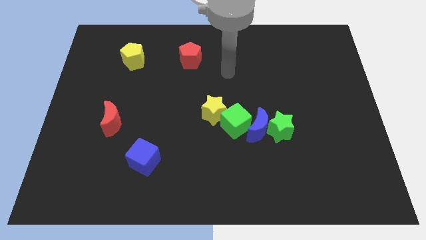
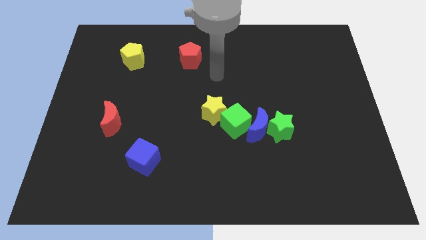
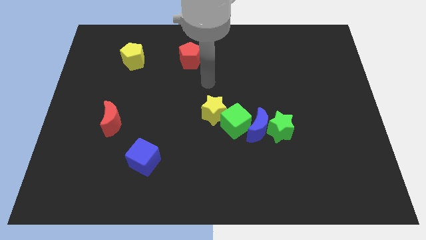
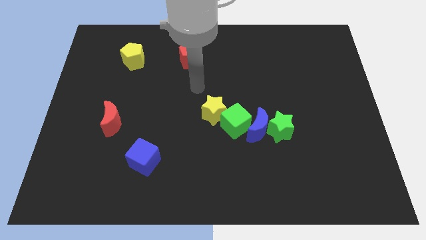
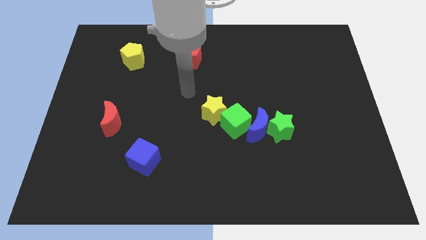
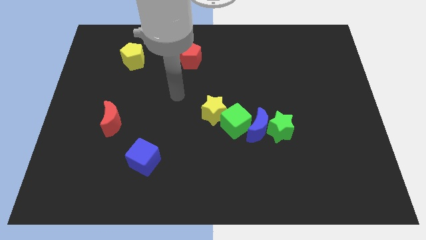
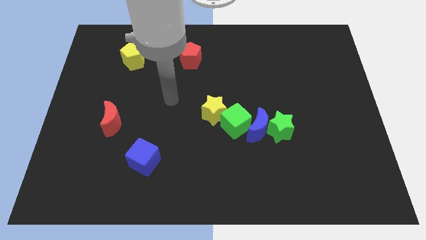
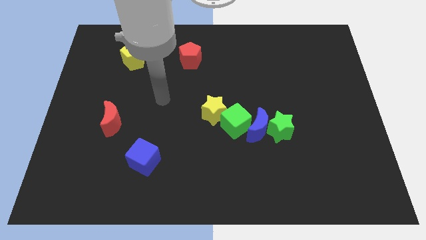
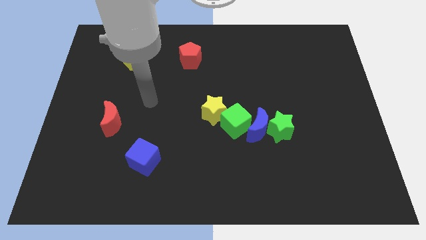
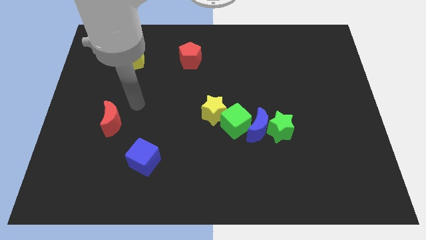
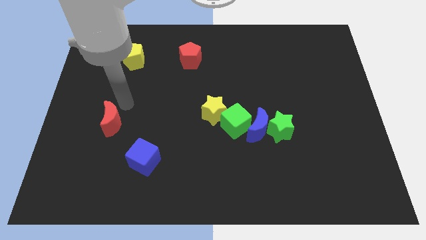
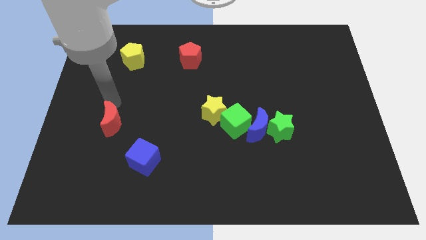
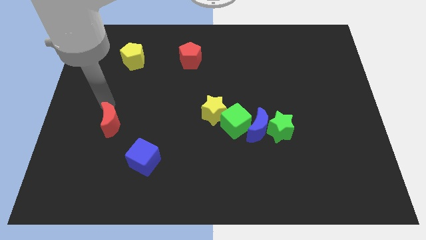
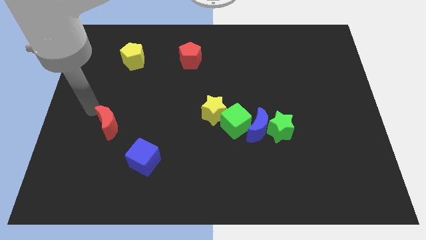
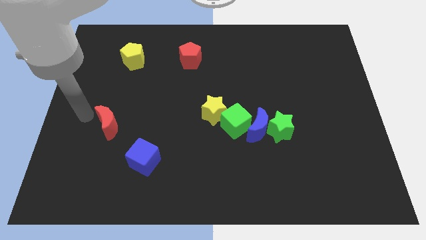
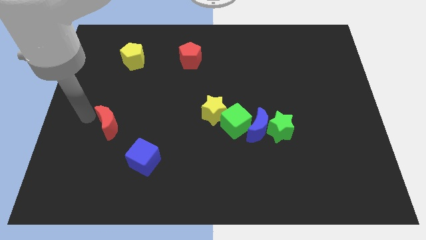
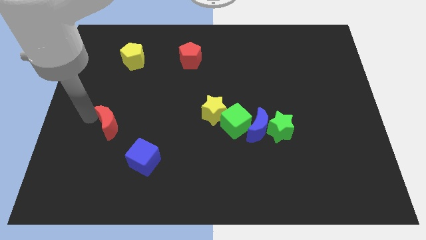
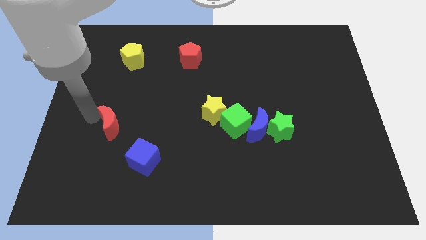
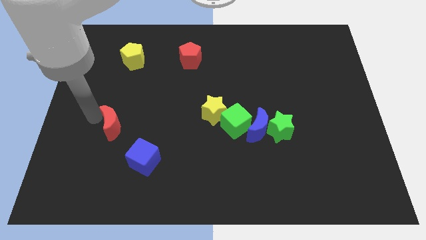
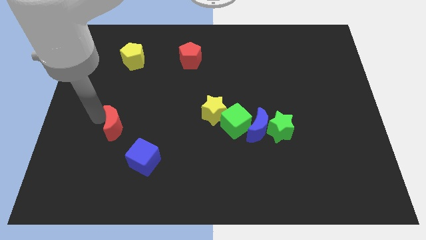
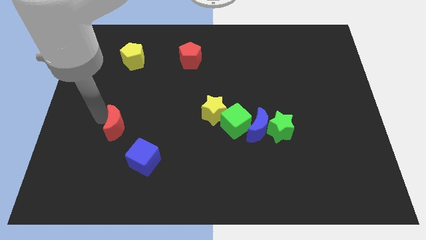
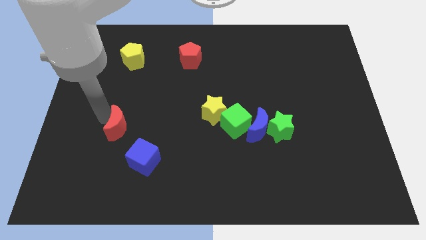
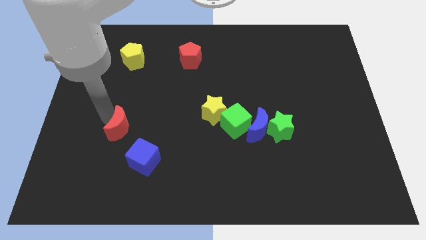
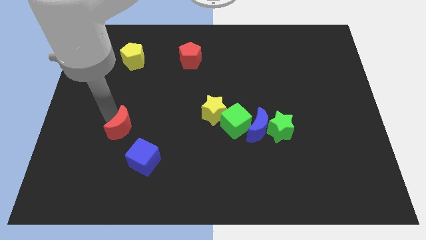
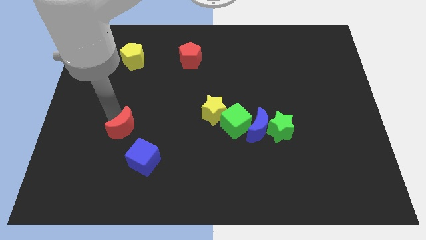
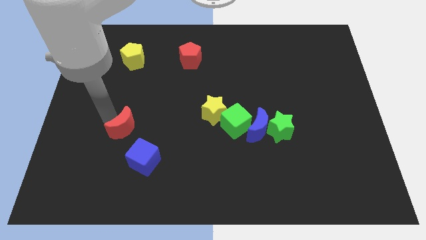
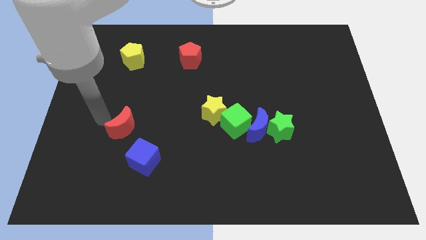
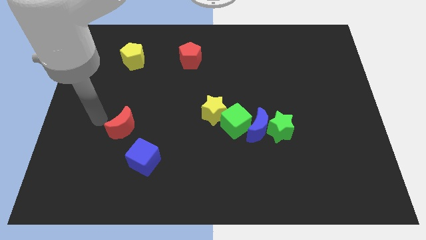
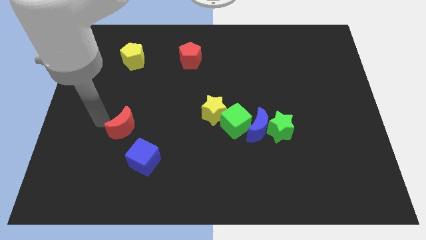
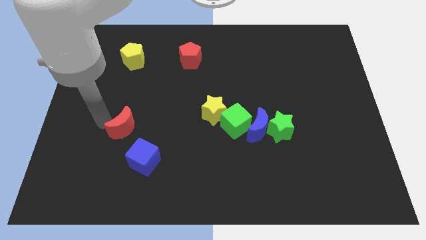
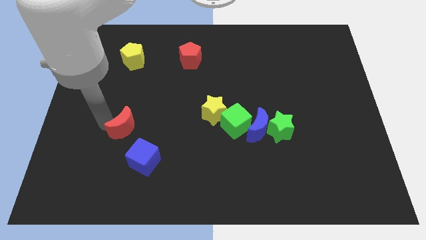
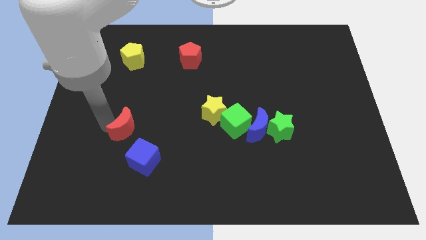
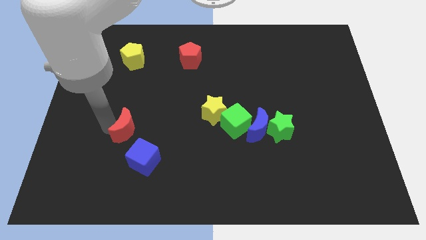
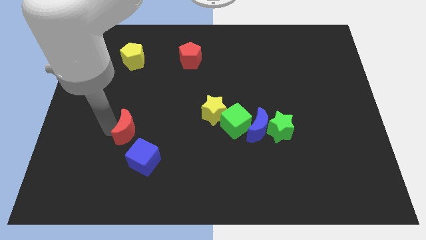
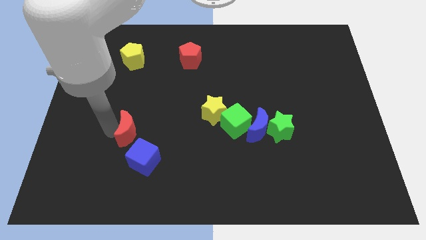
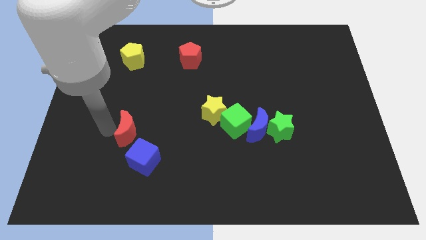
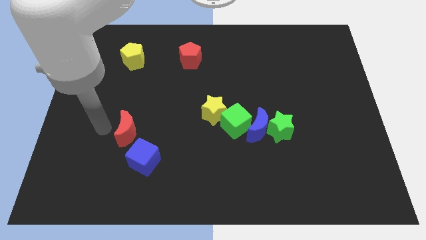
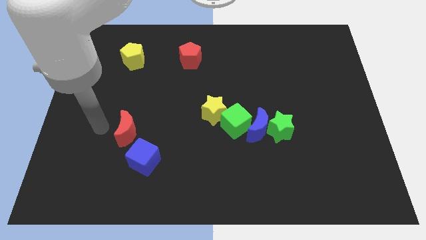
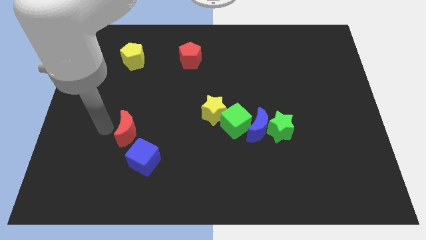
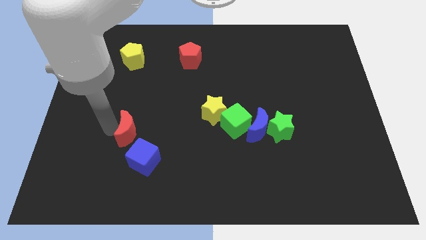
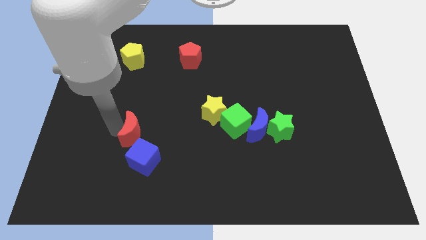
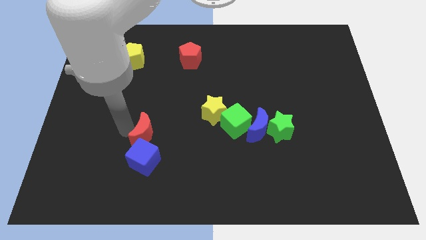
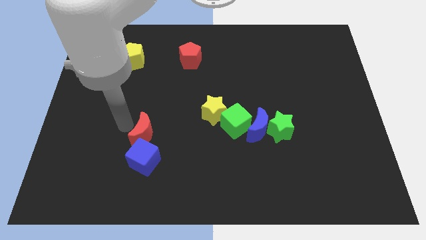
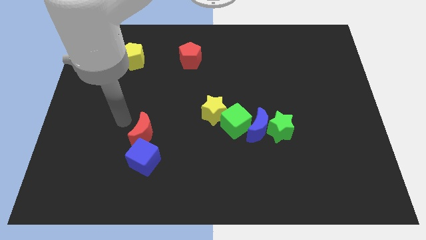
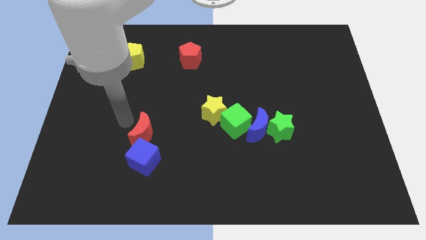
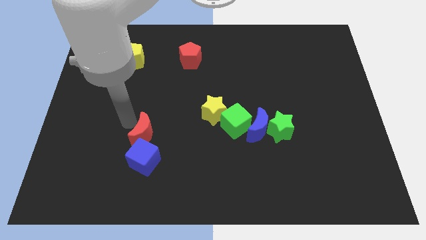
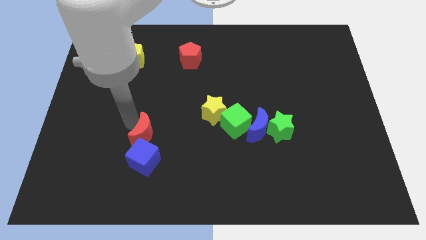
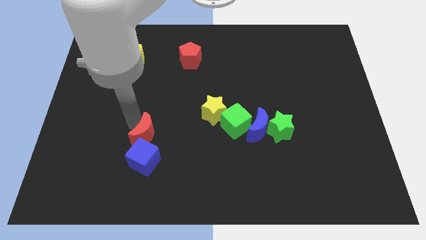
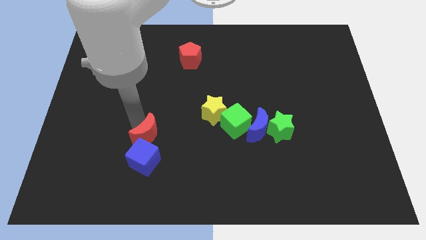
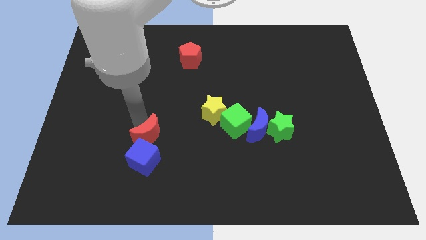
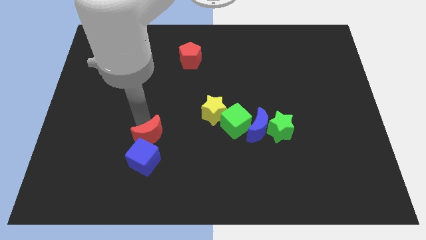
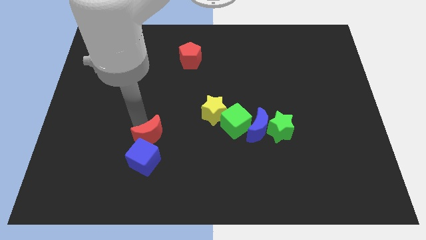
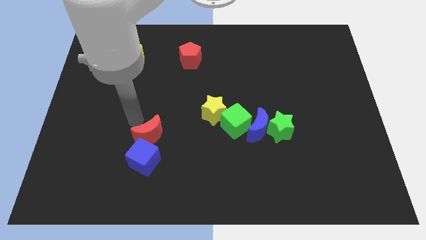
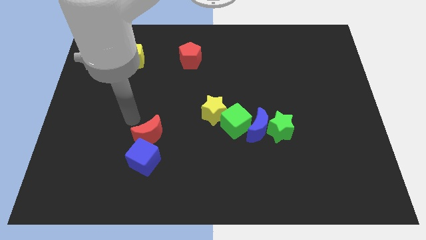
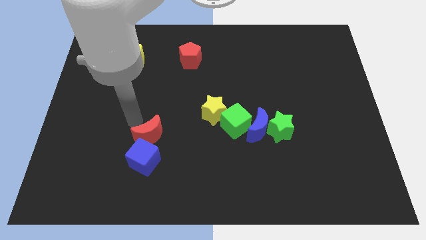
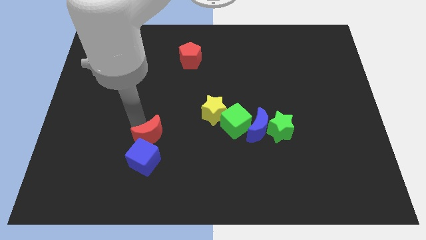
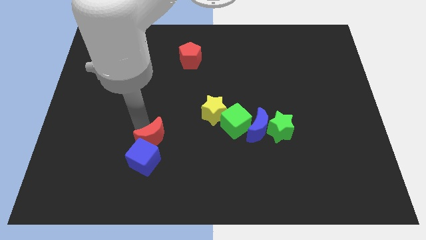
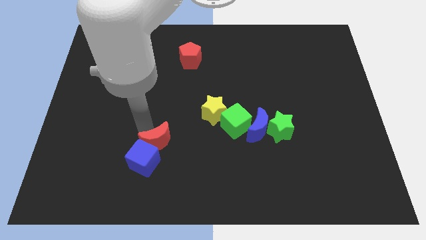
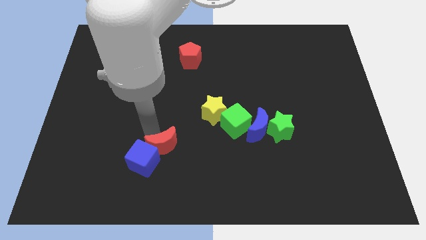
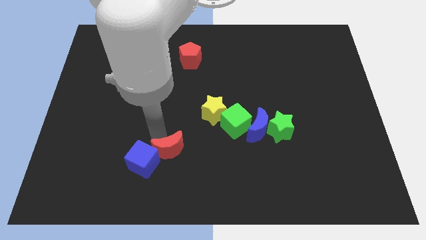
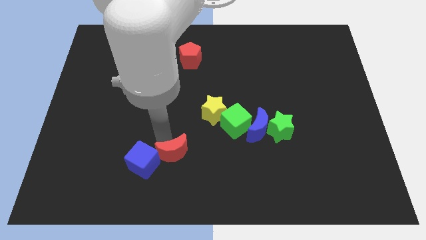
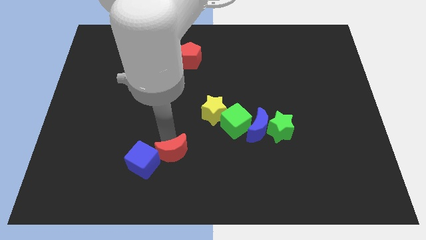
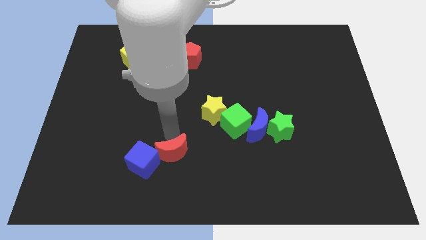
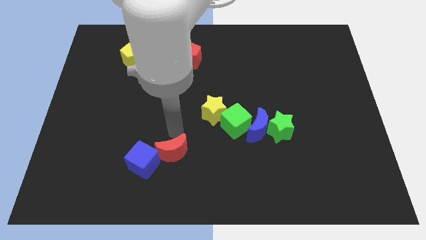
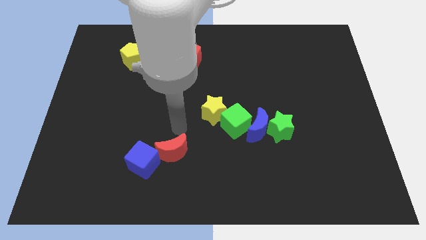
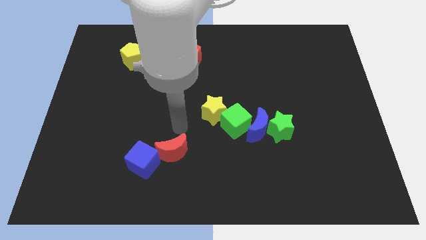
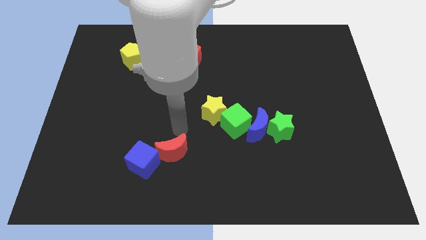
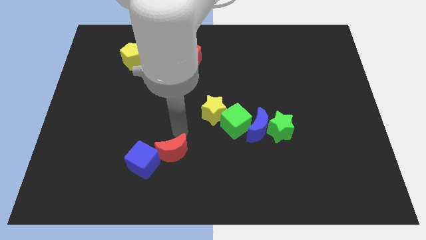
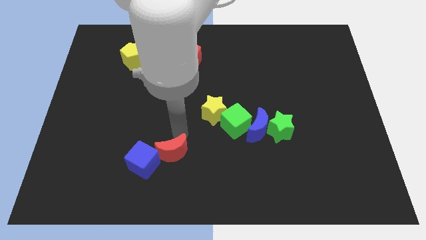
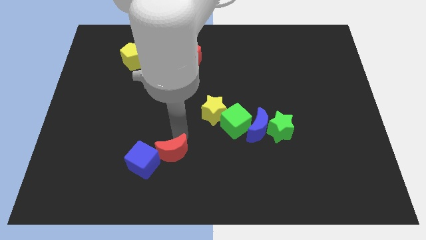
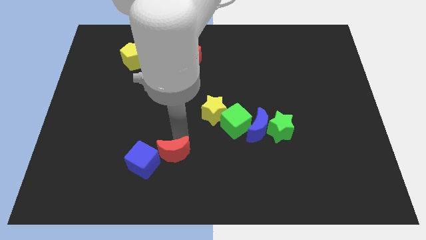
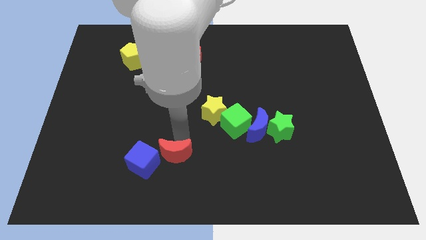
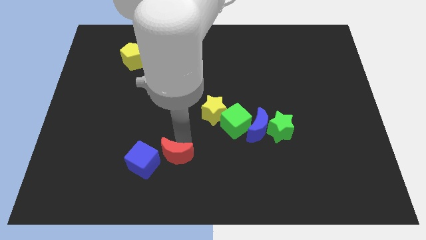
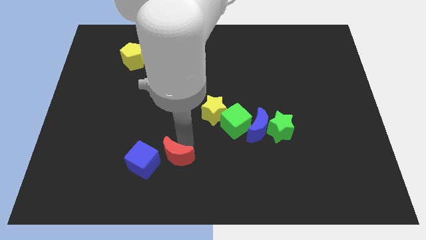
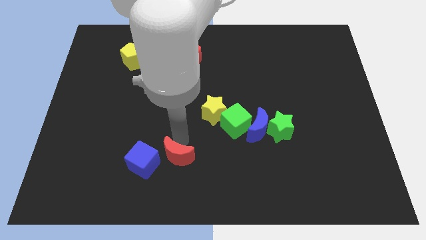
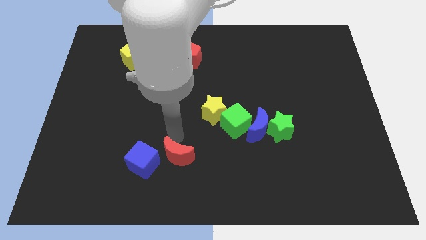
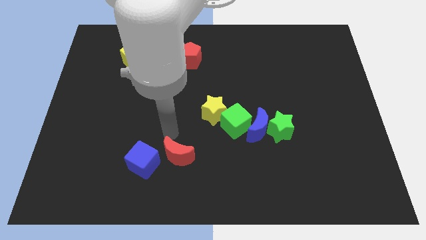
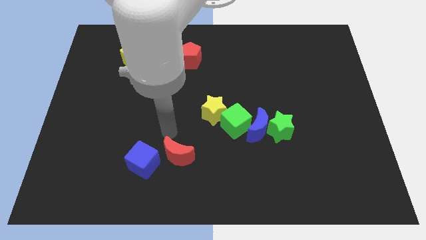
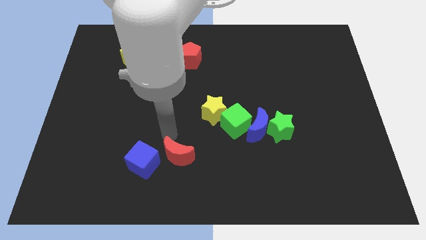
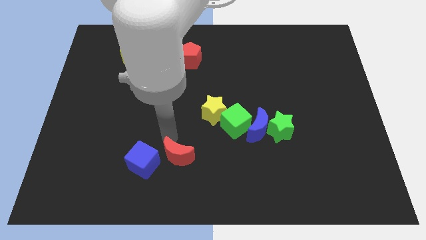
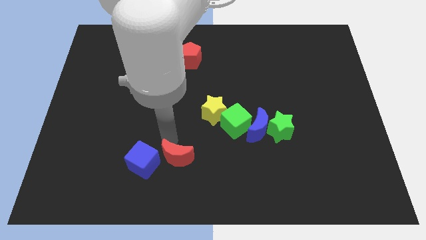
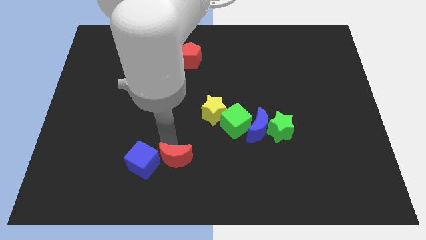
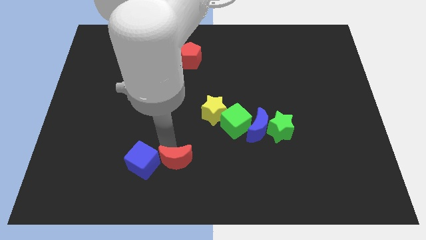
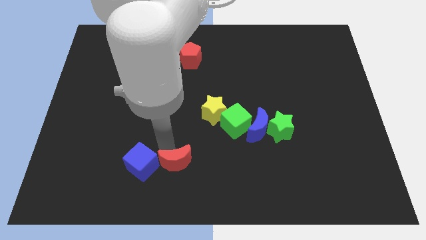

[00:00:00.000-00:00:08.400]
slide the red moon to the bottom side
